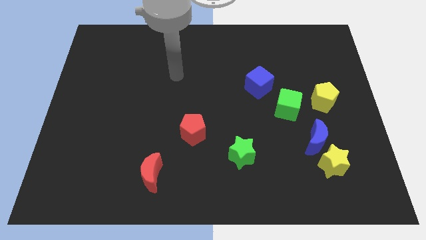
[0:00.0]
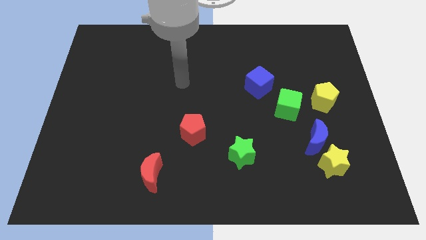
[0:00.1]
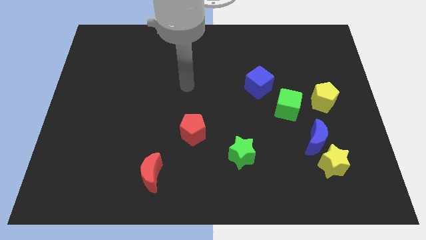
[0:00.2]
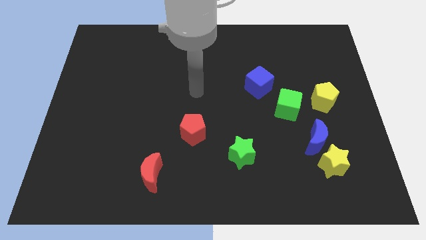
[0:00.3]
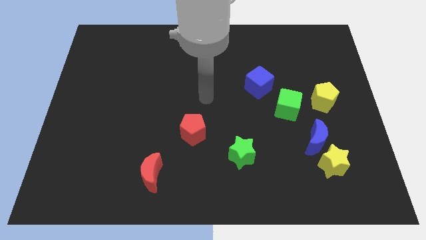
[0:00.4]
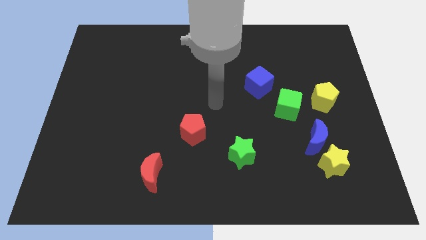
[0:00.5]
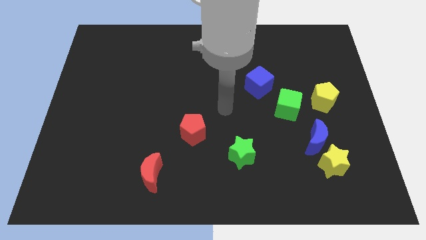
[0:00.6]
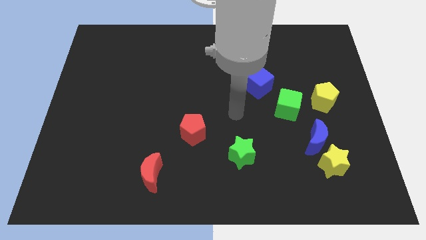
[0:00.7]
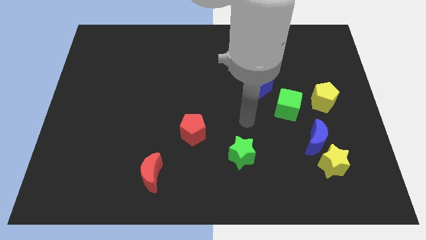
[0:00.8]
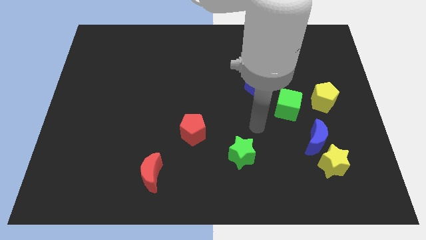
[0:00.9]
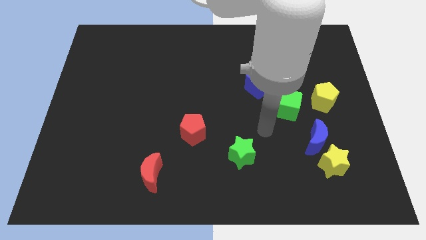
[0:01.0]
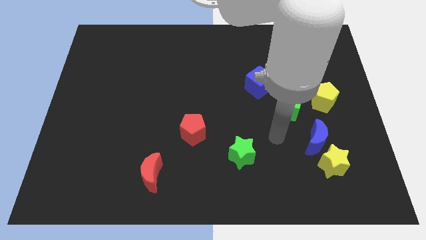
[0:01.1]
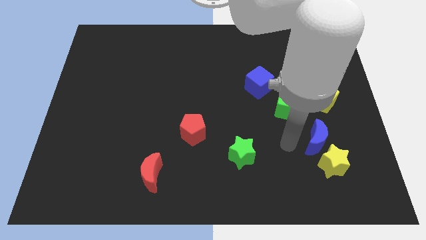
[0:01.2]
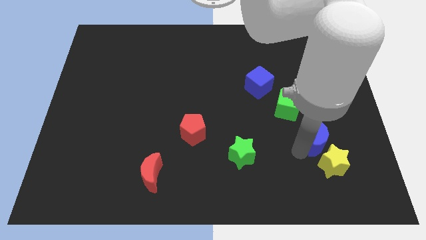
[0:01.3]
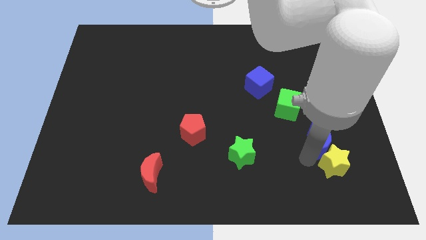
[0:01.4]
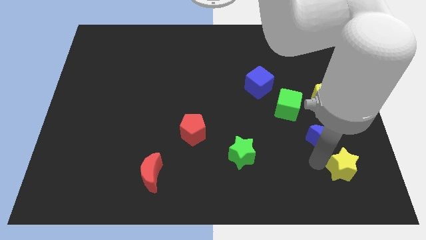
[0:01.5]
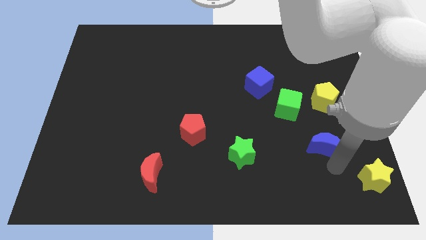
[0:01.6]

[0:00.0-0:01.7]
pull the blue moon apart from the yellow star

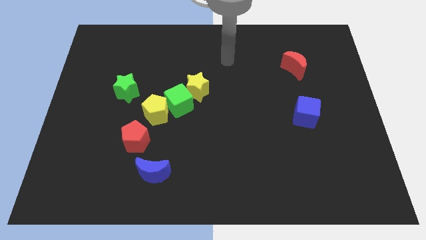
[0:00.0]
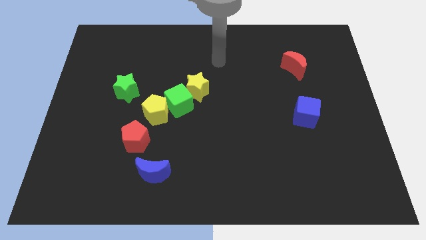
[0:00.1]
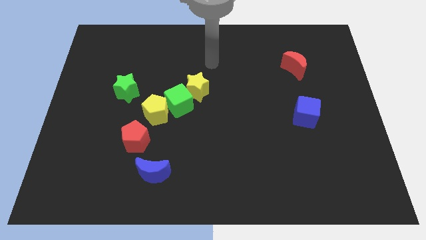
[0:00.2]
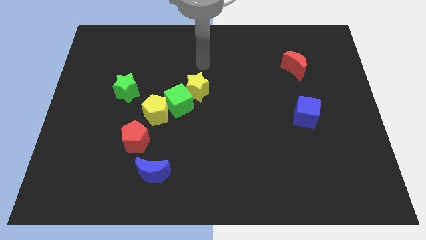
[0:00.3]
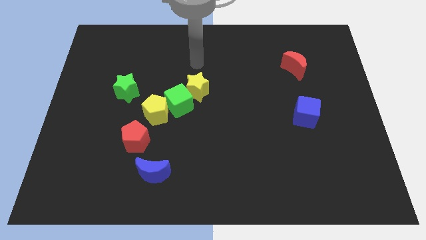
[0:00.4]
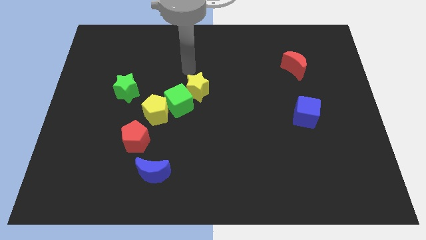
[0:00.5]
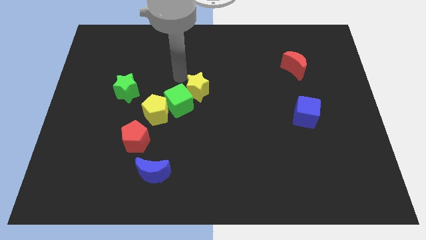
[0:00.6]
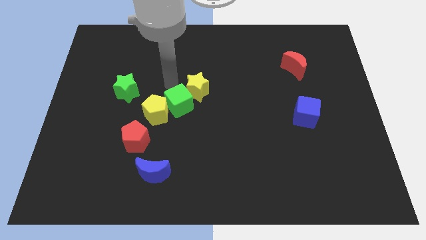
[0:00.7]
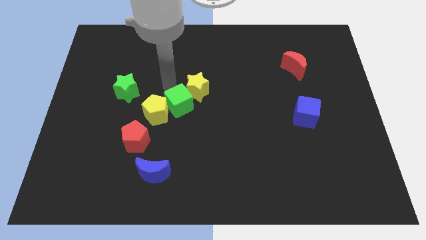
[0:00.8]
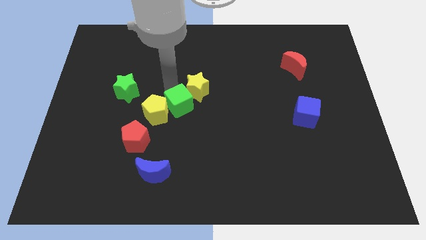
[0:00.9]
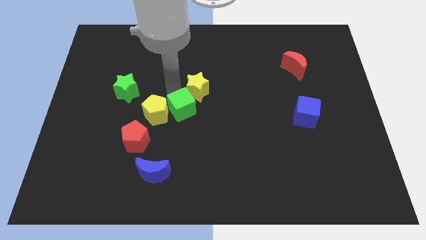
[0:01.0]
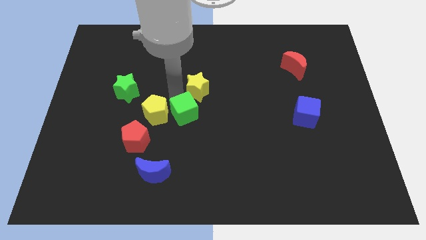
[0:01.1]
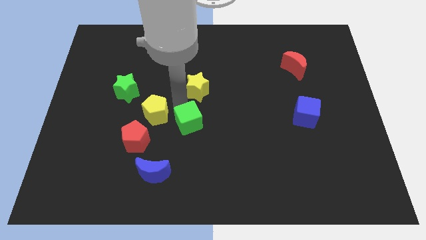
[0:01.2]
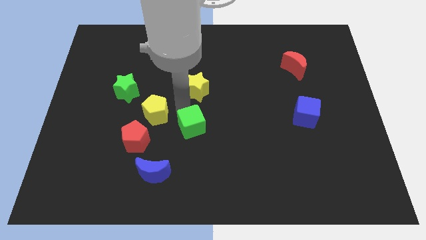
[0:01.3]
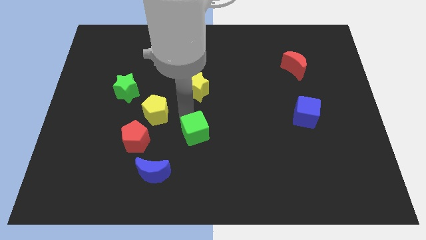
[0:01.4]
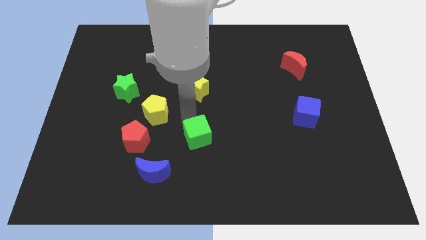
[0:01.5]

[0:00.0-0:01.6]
move the green cube away from the yellow pentagon and yellow star

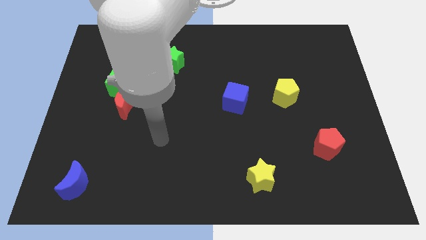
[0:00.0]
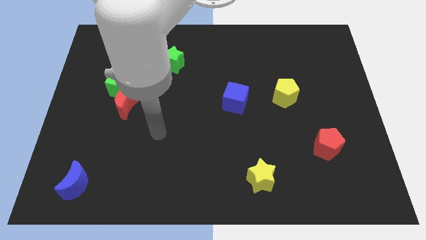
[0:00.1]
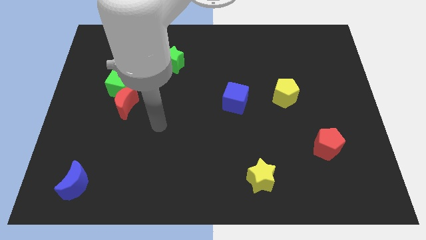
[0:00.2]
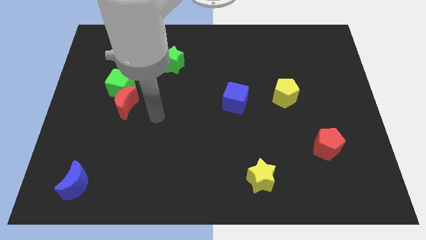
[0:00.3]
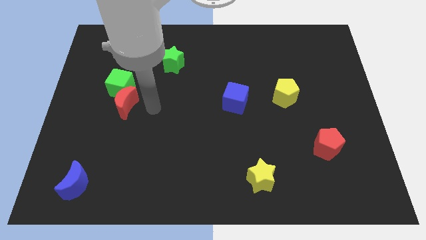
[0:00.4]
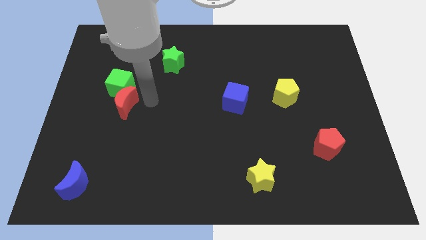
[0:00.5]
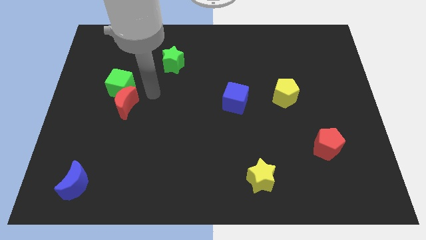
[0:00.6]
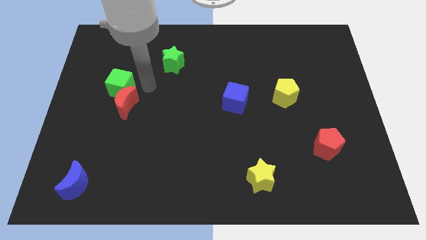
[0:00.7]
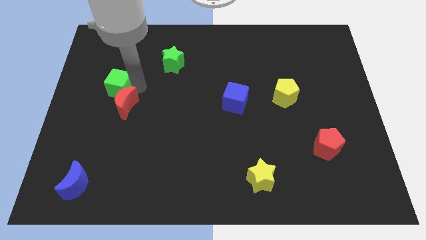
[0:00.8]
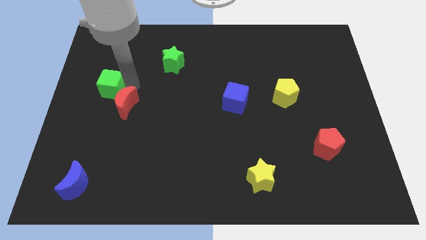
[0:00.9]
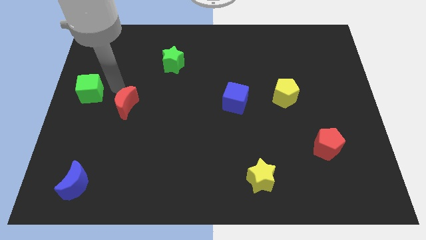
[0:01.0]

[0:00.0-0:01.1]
move the red moon away from the green cube

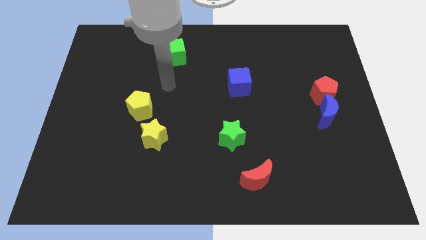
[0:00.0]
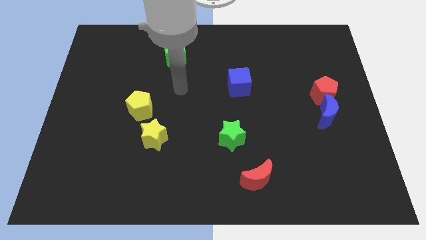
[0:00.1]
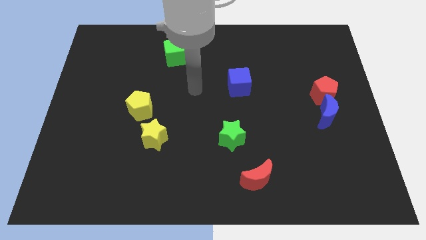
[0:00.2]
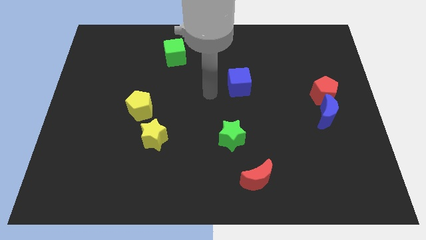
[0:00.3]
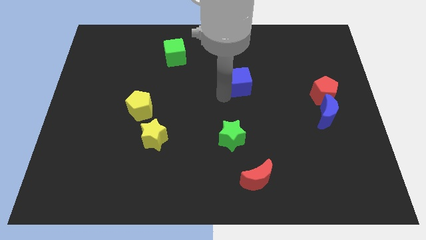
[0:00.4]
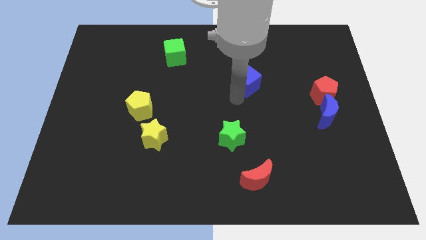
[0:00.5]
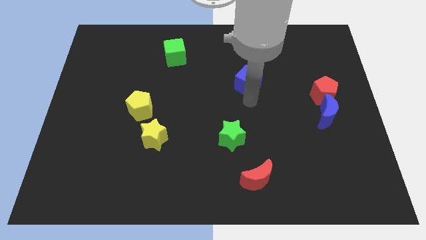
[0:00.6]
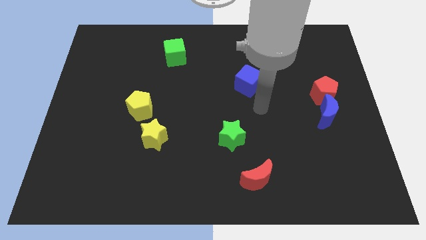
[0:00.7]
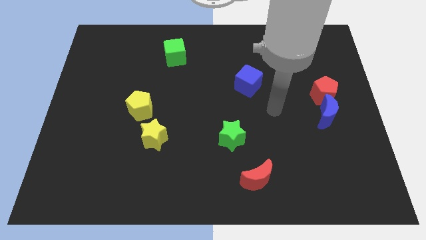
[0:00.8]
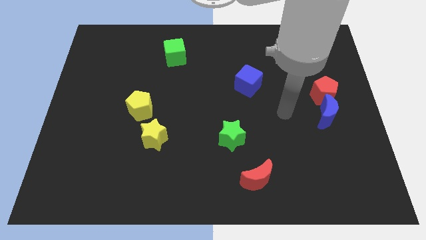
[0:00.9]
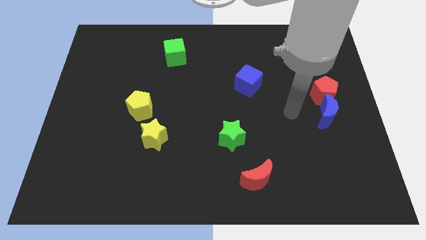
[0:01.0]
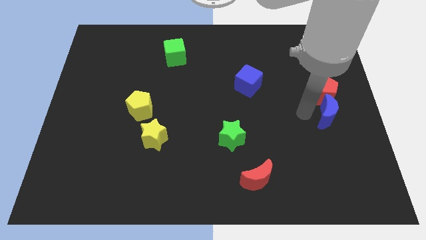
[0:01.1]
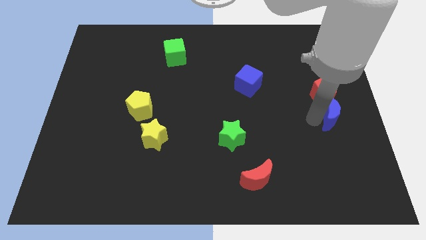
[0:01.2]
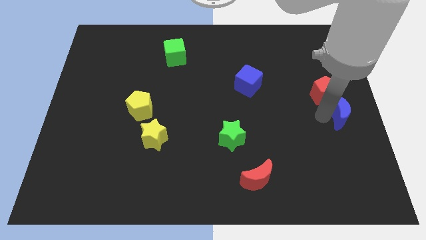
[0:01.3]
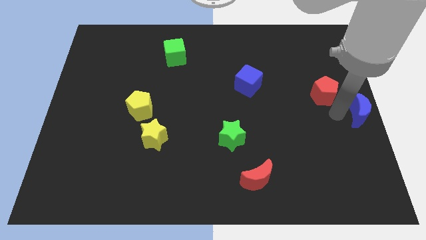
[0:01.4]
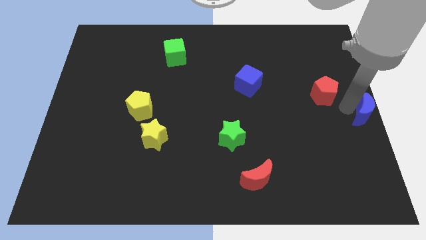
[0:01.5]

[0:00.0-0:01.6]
pull the red pentagon apart from the blue moon

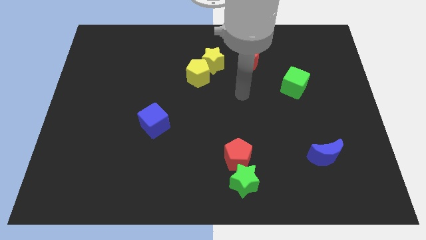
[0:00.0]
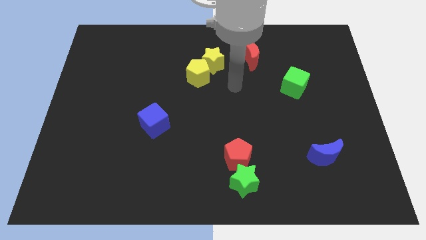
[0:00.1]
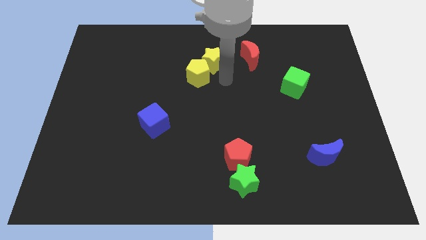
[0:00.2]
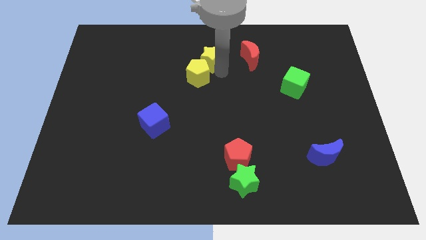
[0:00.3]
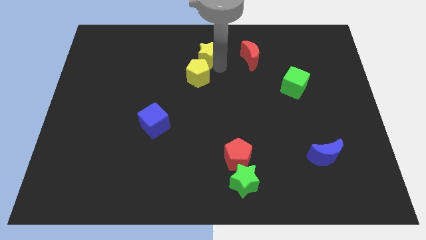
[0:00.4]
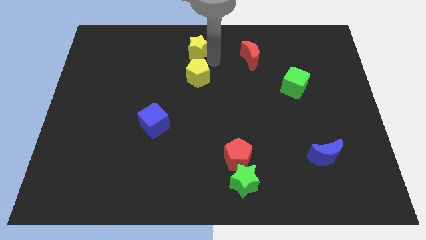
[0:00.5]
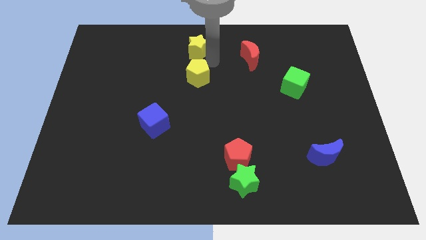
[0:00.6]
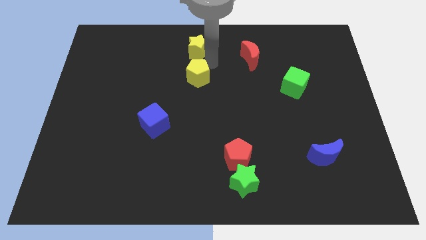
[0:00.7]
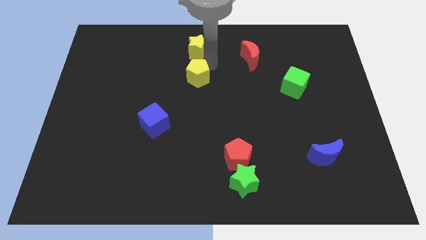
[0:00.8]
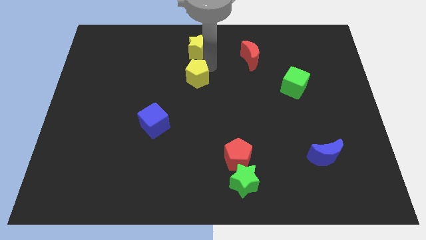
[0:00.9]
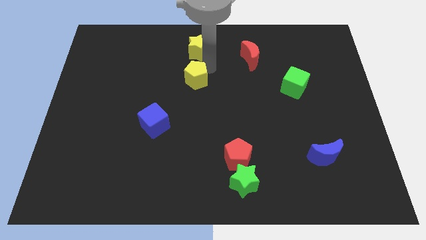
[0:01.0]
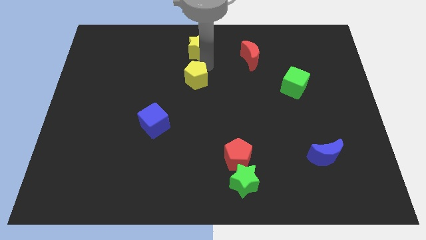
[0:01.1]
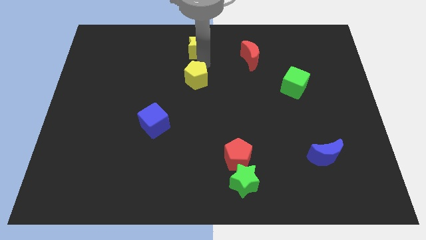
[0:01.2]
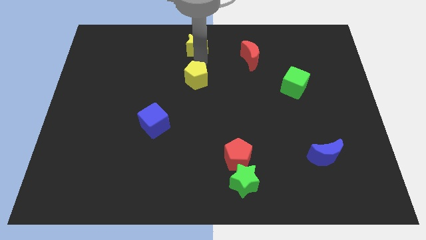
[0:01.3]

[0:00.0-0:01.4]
move the yellow pentagon away from the yellow star

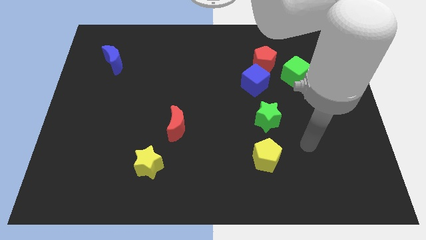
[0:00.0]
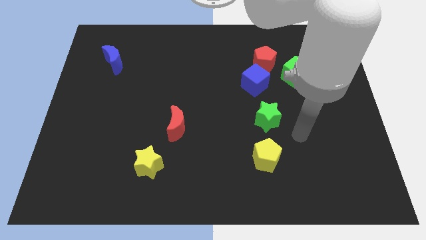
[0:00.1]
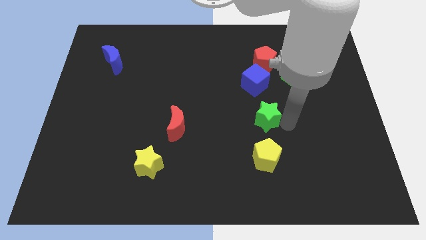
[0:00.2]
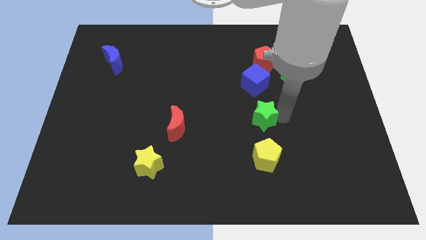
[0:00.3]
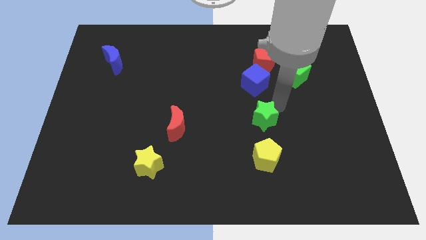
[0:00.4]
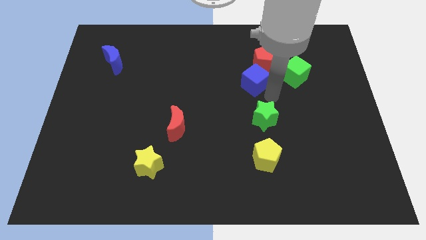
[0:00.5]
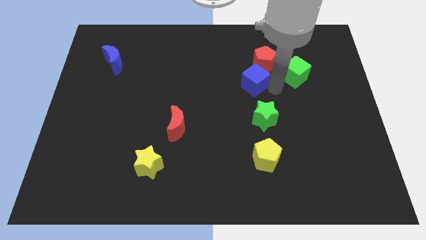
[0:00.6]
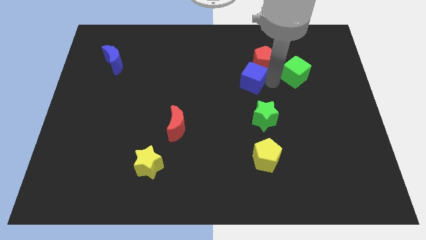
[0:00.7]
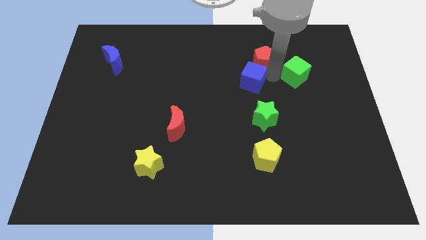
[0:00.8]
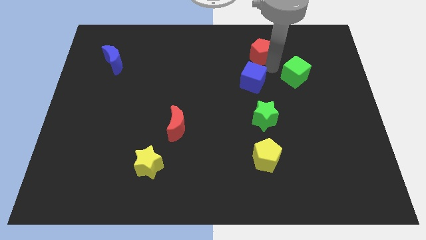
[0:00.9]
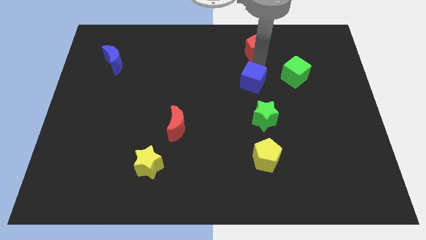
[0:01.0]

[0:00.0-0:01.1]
pull the blue cube apart from the red pentagon

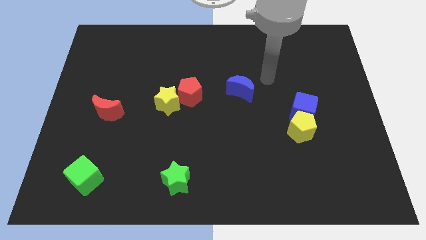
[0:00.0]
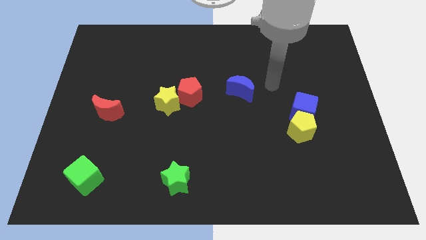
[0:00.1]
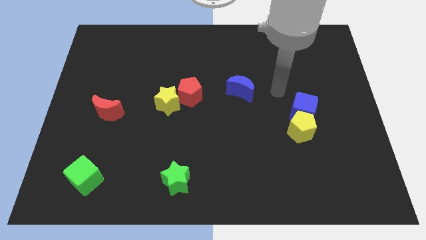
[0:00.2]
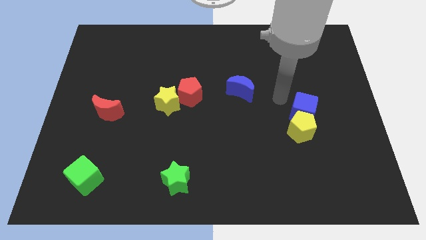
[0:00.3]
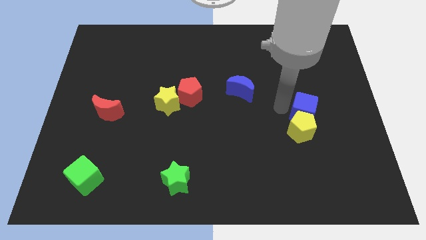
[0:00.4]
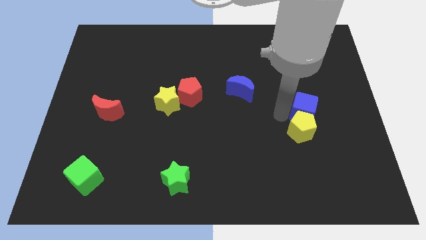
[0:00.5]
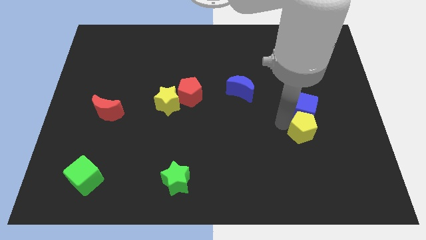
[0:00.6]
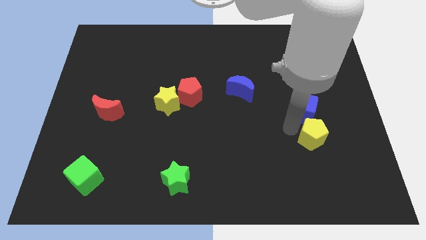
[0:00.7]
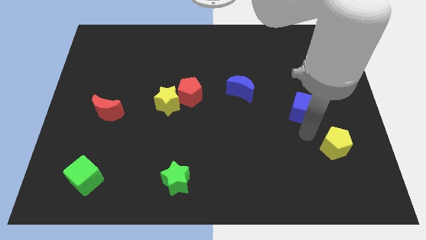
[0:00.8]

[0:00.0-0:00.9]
move the blue cube away from the yellow pentagon
